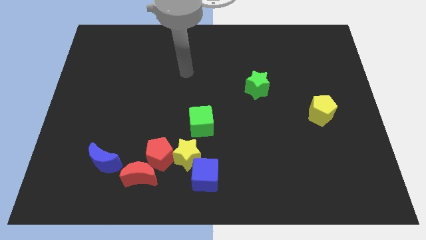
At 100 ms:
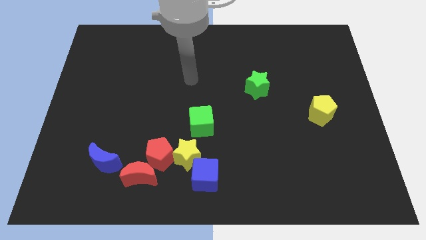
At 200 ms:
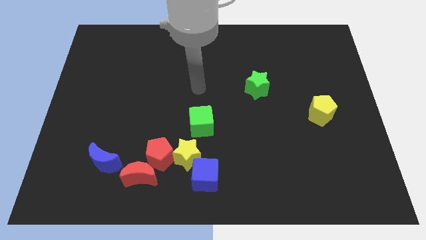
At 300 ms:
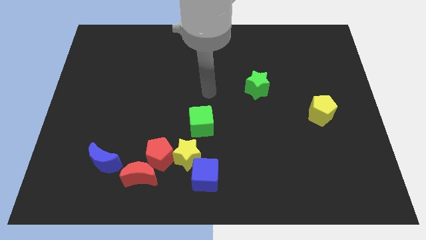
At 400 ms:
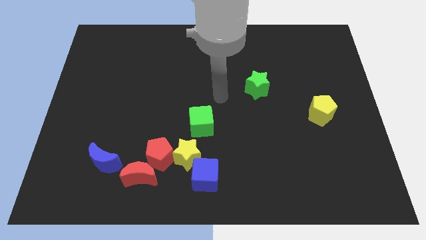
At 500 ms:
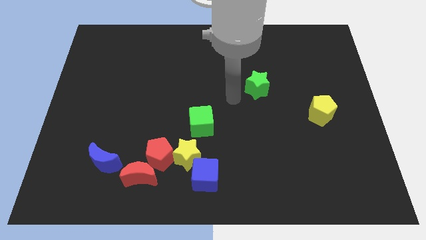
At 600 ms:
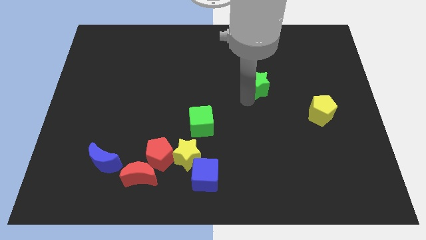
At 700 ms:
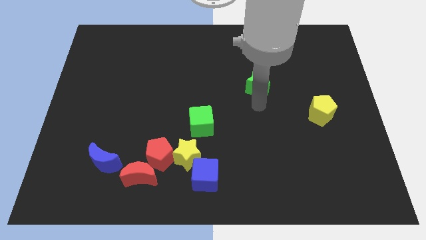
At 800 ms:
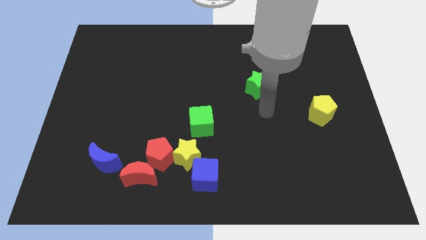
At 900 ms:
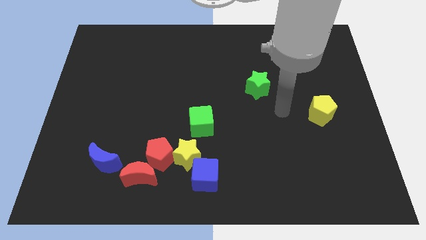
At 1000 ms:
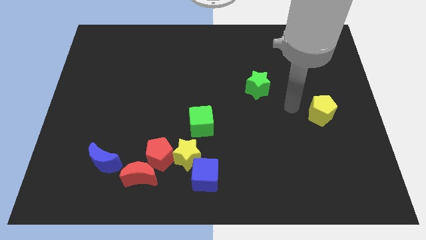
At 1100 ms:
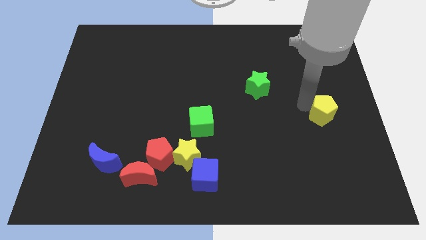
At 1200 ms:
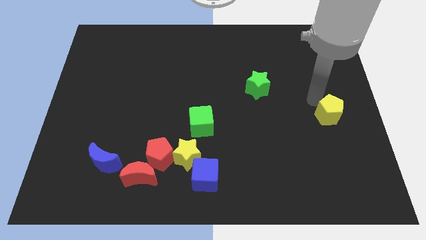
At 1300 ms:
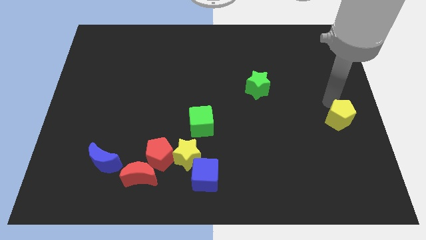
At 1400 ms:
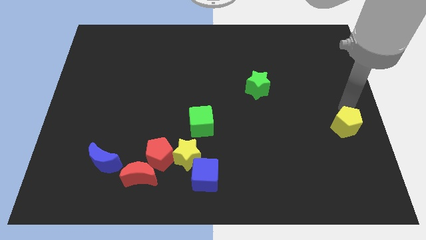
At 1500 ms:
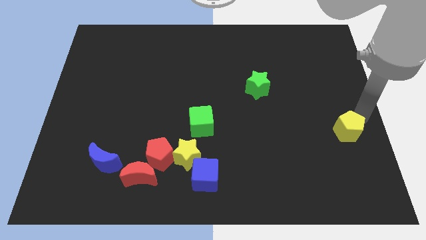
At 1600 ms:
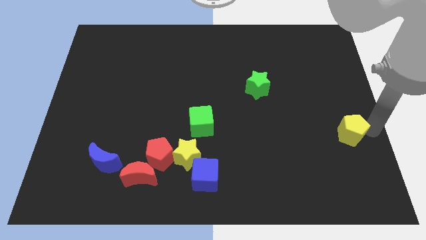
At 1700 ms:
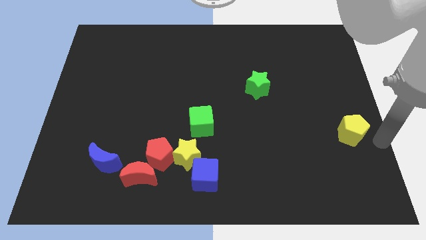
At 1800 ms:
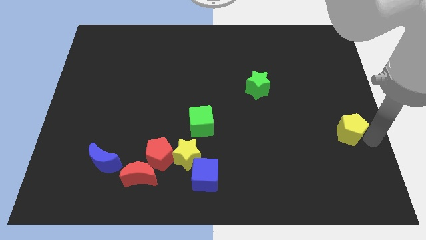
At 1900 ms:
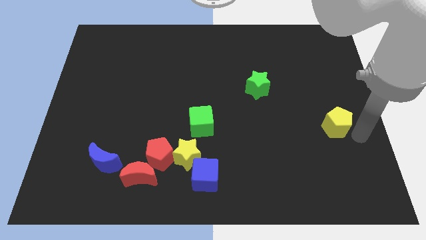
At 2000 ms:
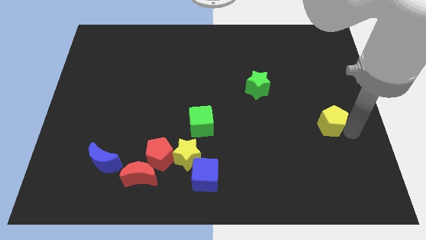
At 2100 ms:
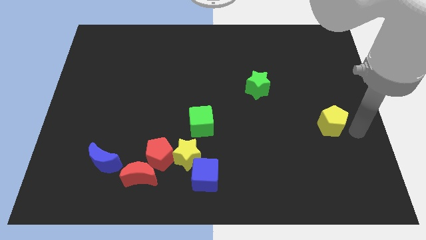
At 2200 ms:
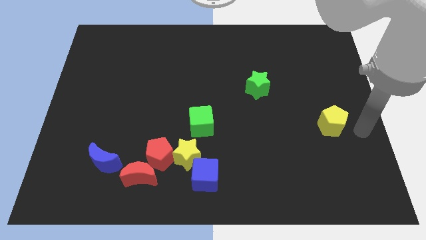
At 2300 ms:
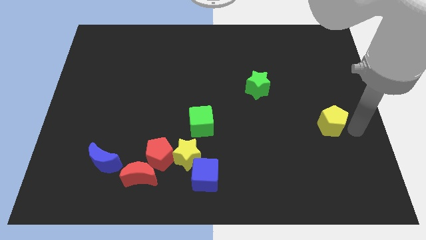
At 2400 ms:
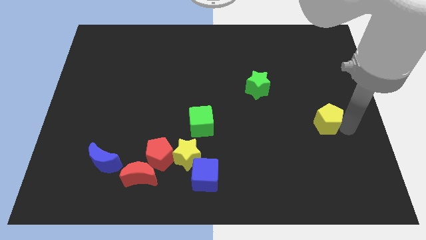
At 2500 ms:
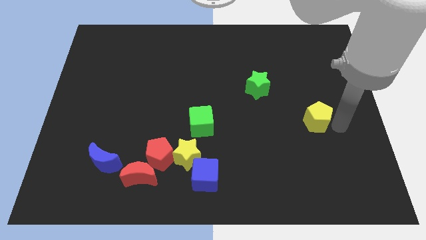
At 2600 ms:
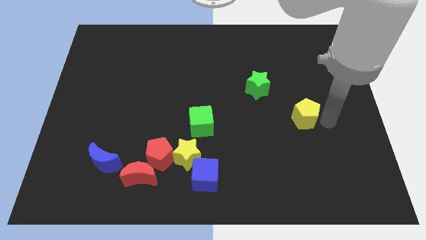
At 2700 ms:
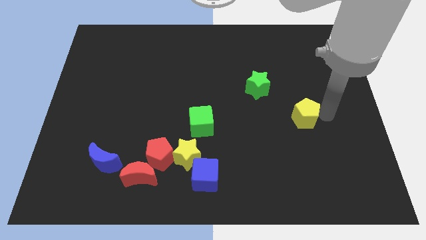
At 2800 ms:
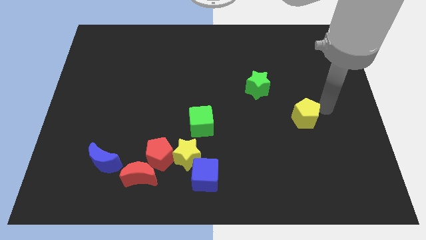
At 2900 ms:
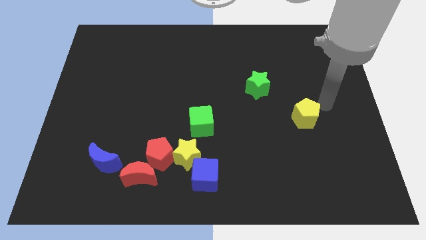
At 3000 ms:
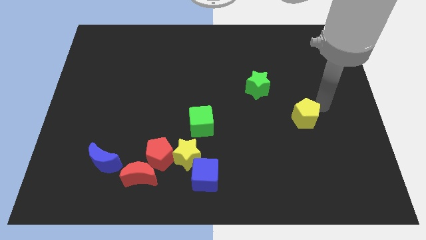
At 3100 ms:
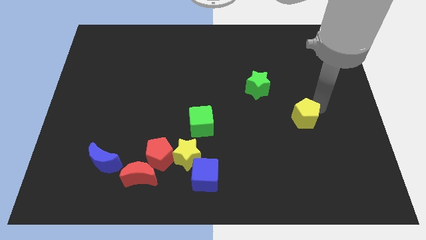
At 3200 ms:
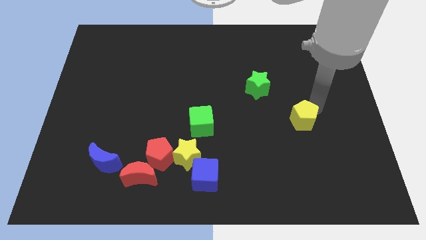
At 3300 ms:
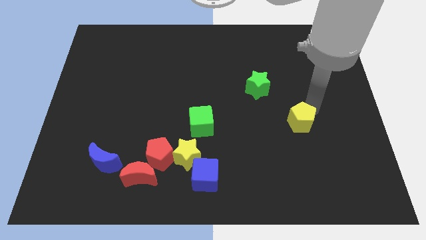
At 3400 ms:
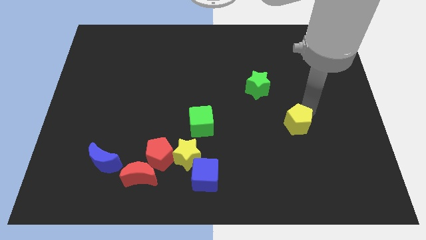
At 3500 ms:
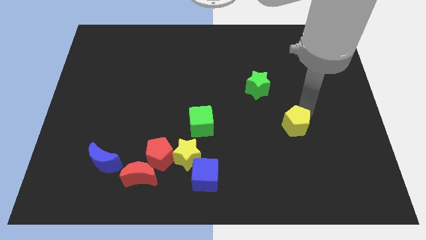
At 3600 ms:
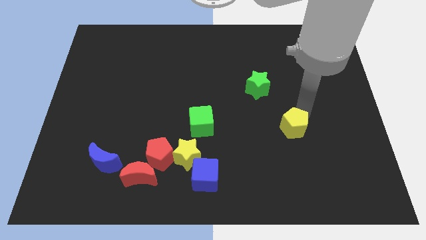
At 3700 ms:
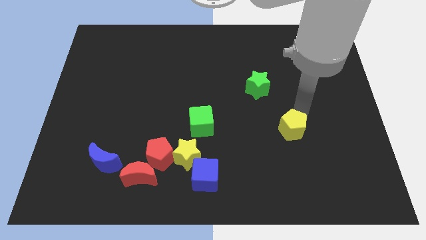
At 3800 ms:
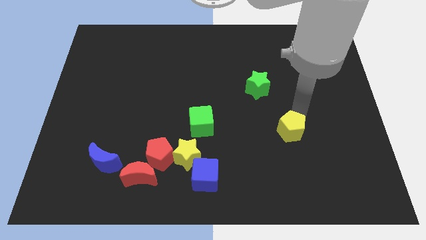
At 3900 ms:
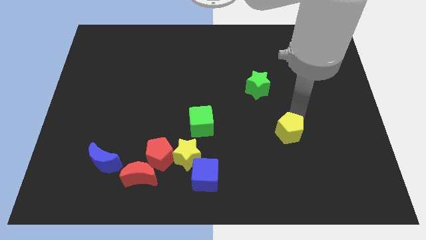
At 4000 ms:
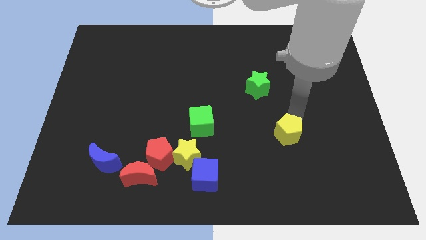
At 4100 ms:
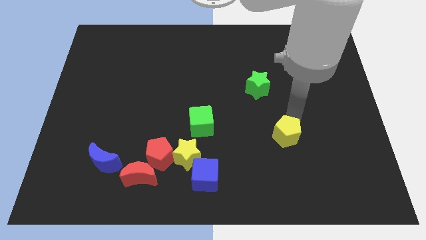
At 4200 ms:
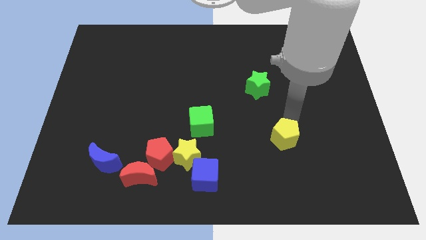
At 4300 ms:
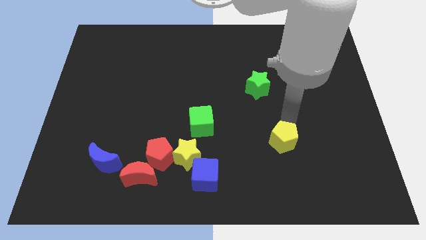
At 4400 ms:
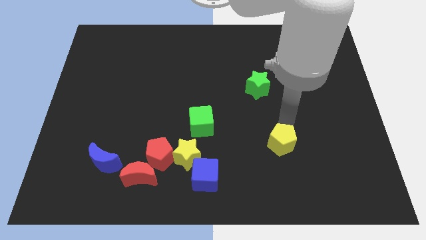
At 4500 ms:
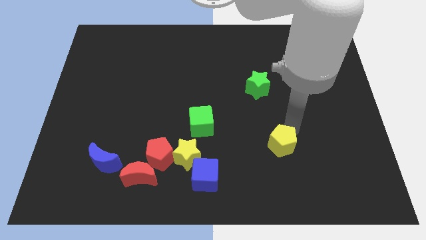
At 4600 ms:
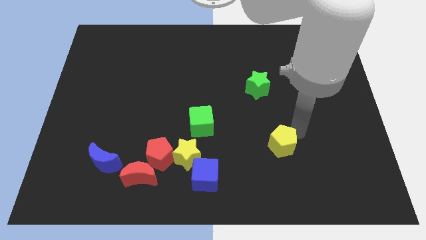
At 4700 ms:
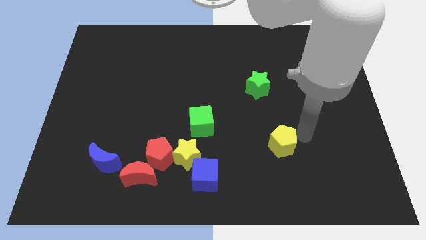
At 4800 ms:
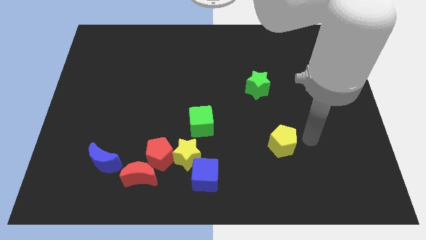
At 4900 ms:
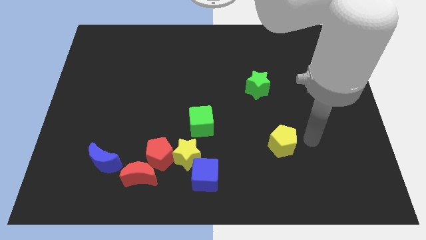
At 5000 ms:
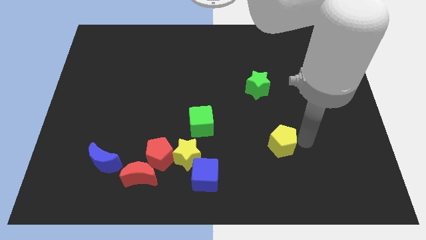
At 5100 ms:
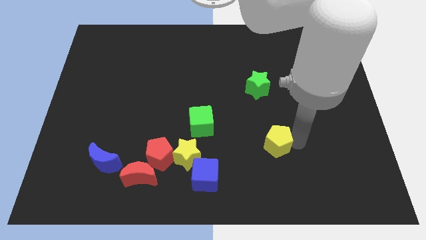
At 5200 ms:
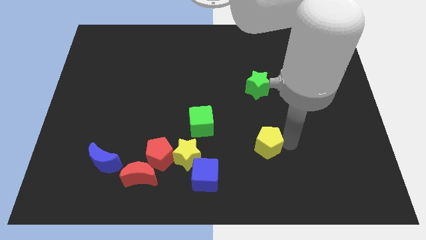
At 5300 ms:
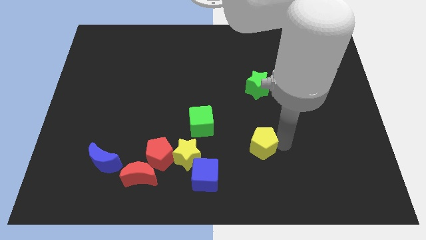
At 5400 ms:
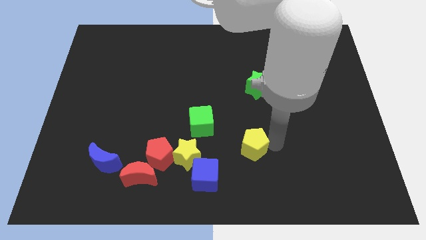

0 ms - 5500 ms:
put the yellow pentagon right of the yellow star

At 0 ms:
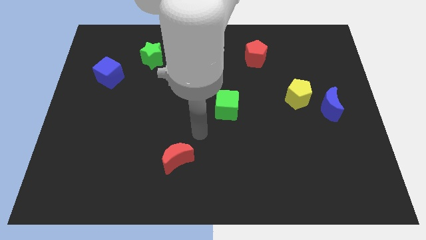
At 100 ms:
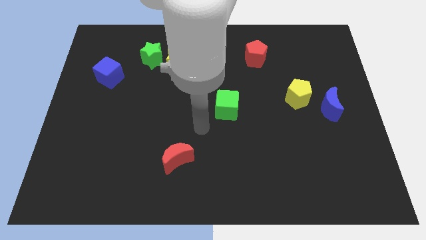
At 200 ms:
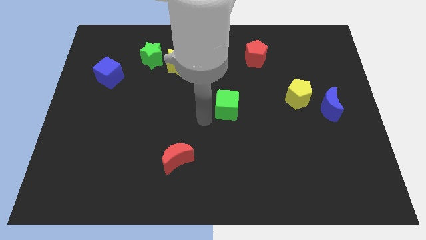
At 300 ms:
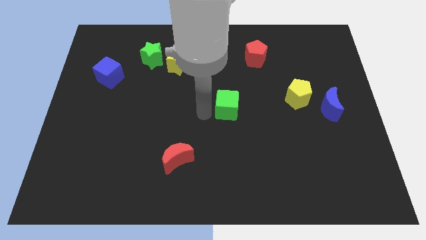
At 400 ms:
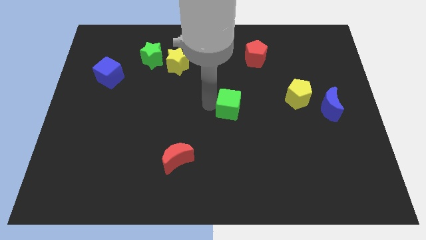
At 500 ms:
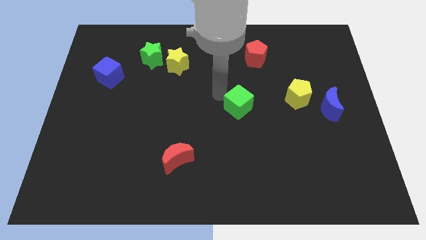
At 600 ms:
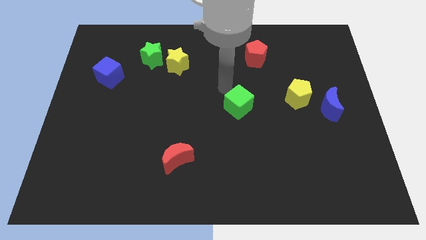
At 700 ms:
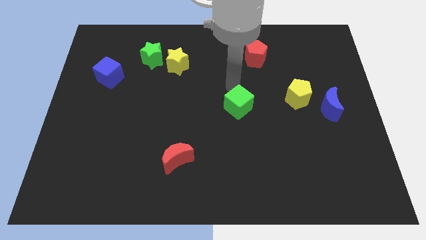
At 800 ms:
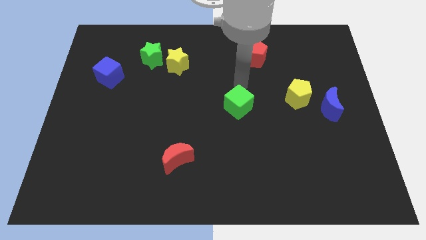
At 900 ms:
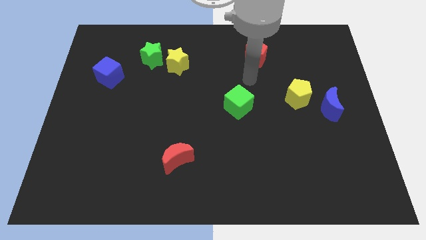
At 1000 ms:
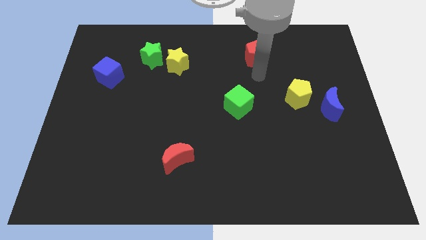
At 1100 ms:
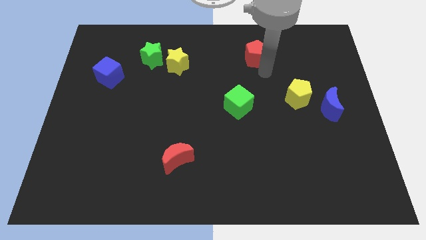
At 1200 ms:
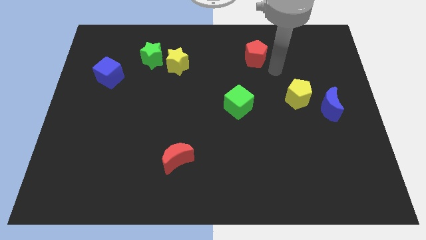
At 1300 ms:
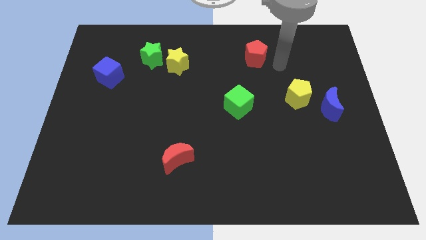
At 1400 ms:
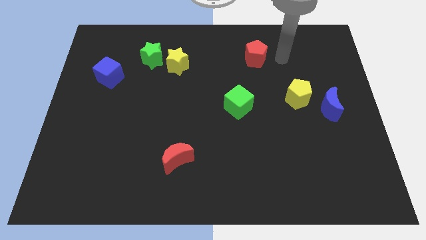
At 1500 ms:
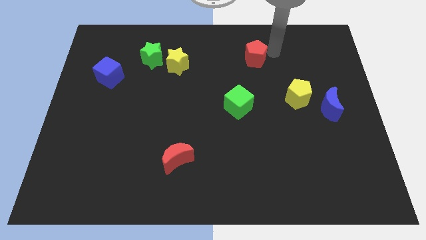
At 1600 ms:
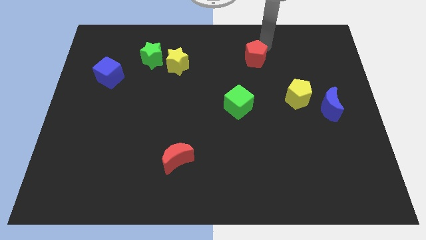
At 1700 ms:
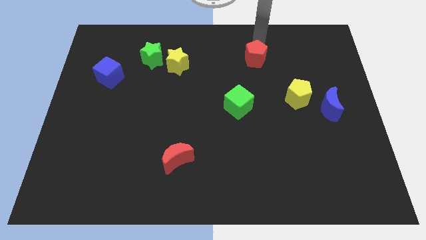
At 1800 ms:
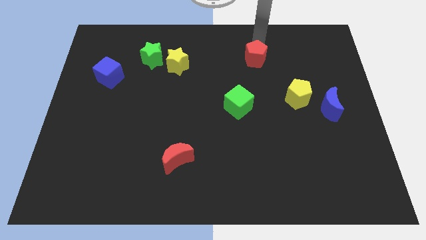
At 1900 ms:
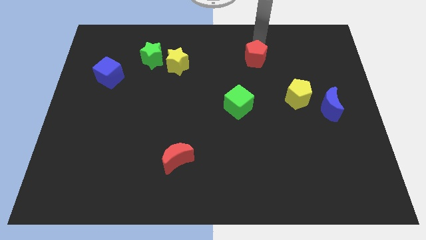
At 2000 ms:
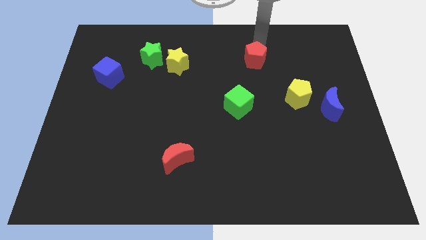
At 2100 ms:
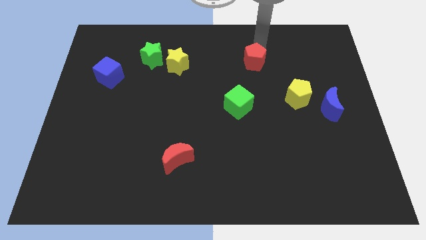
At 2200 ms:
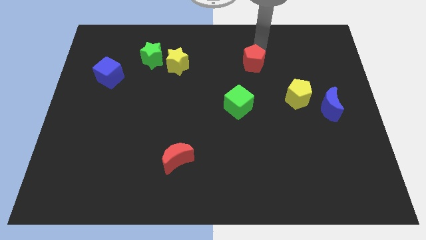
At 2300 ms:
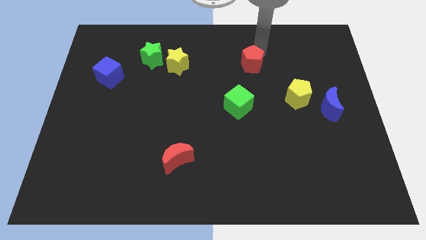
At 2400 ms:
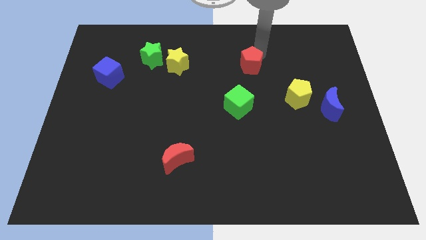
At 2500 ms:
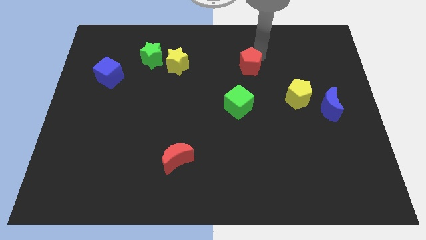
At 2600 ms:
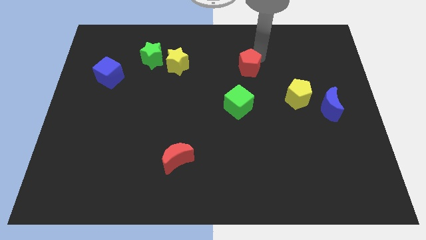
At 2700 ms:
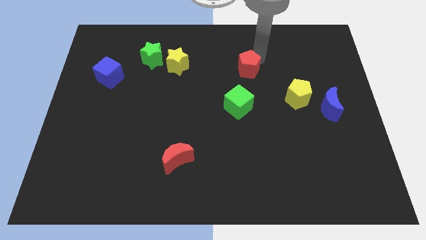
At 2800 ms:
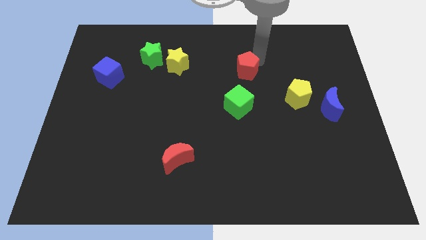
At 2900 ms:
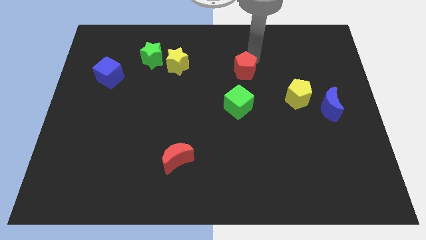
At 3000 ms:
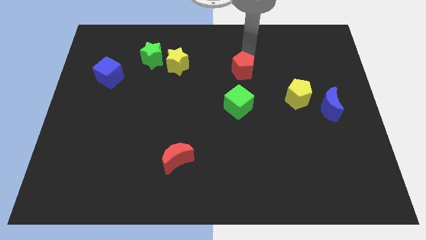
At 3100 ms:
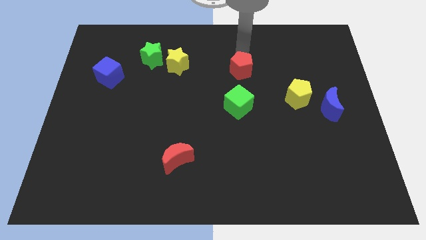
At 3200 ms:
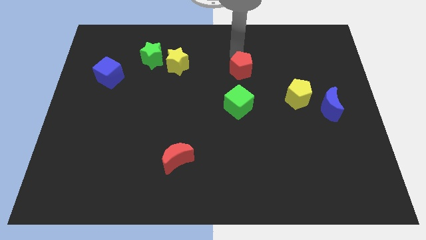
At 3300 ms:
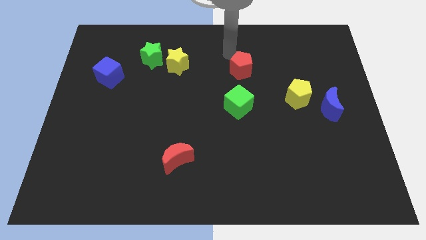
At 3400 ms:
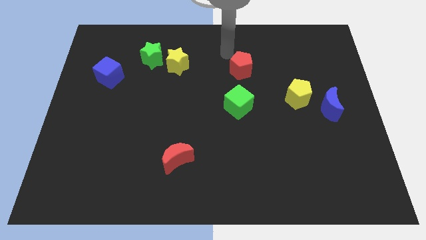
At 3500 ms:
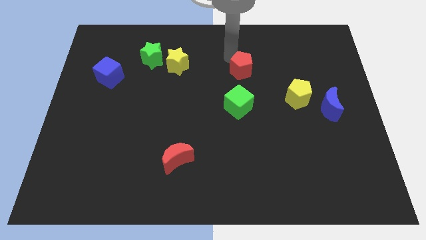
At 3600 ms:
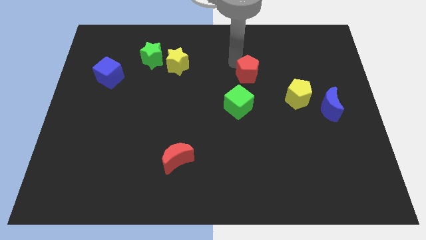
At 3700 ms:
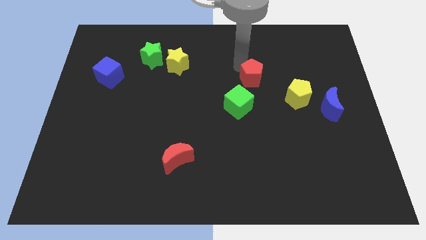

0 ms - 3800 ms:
put the red pentagon to the top right side of the green cube
